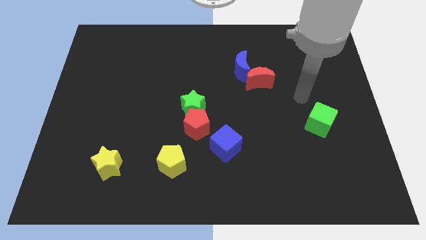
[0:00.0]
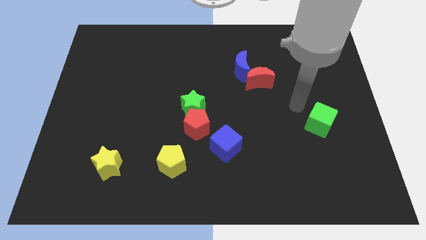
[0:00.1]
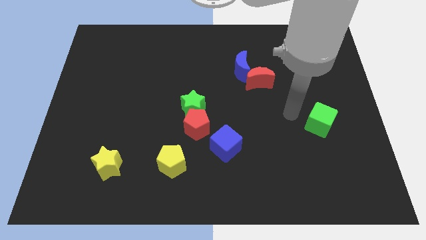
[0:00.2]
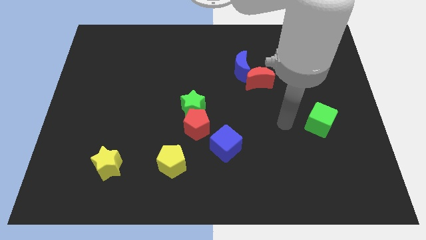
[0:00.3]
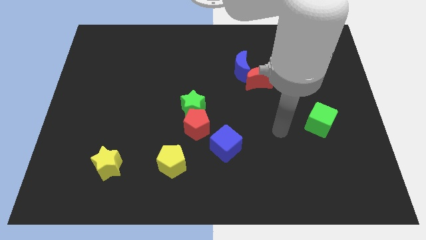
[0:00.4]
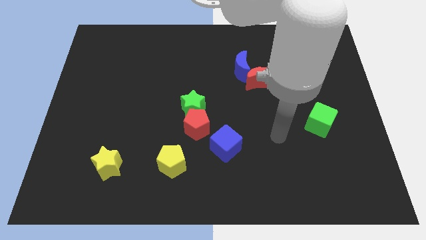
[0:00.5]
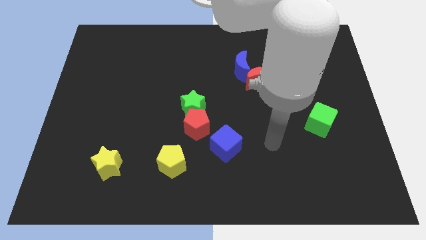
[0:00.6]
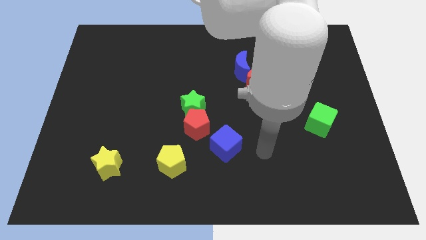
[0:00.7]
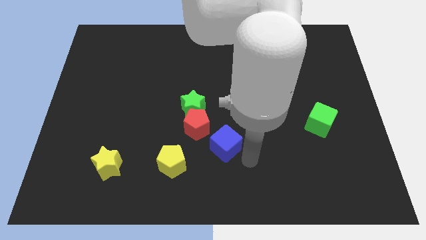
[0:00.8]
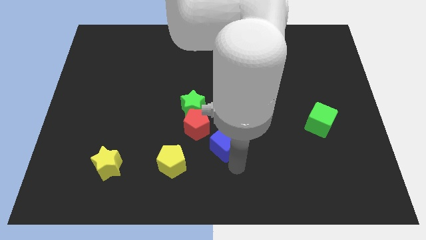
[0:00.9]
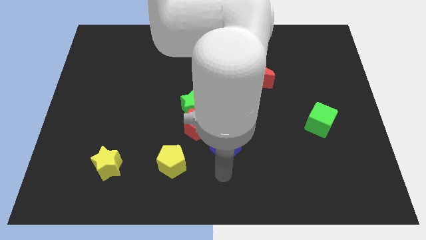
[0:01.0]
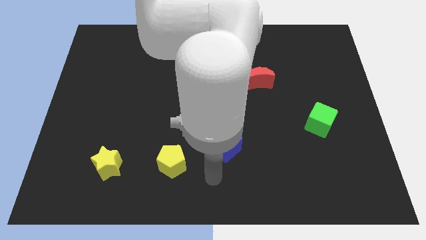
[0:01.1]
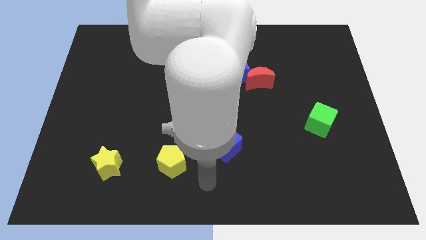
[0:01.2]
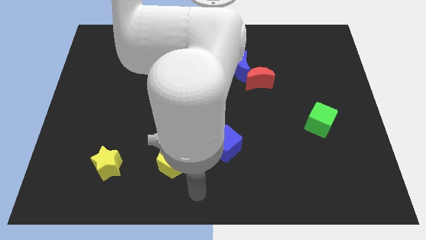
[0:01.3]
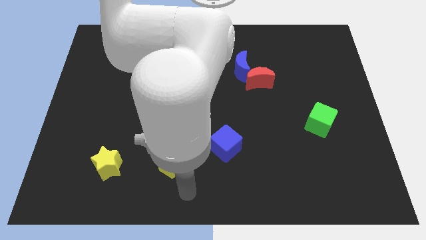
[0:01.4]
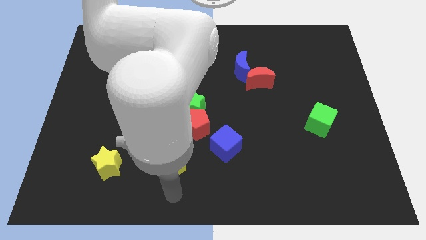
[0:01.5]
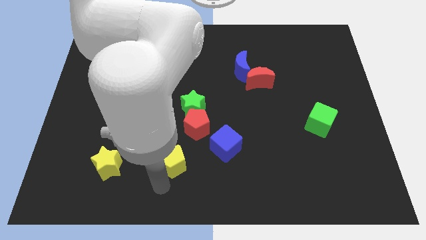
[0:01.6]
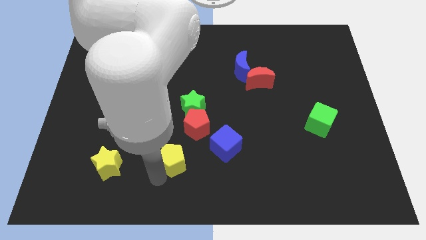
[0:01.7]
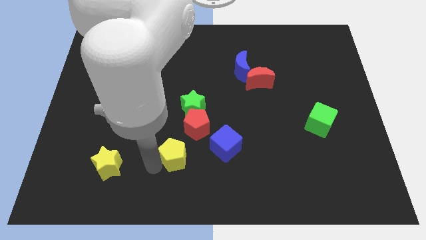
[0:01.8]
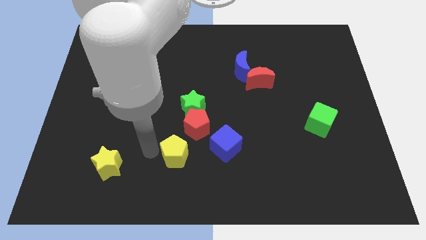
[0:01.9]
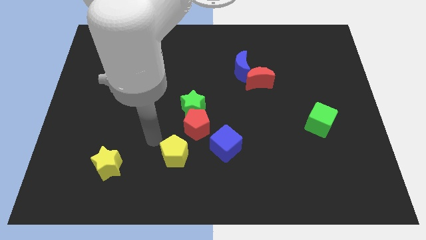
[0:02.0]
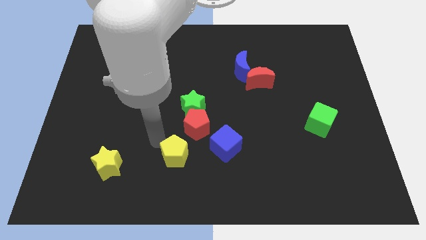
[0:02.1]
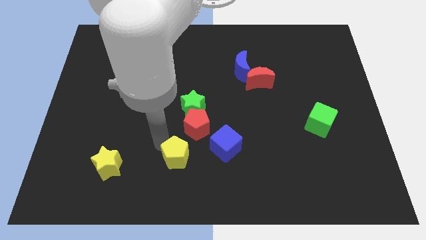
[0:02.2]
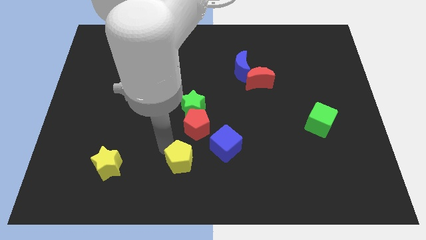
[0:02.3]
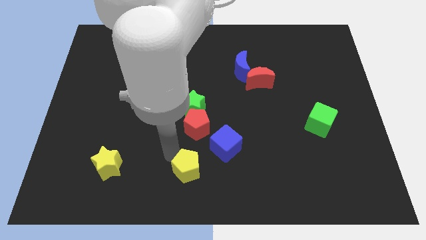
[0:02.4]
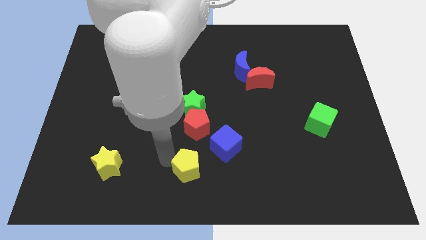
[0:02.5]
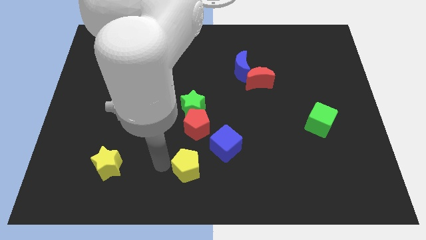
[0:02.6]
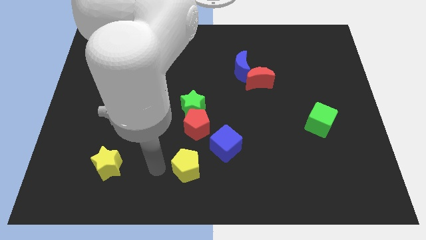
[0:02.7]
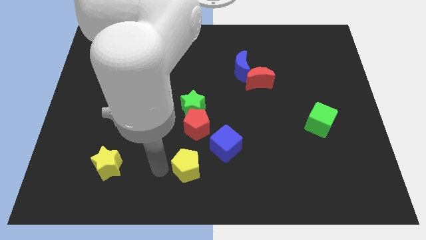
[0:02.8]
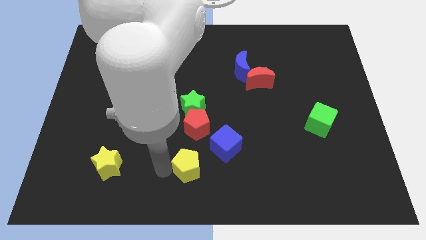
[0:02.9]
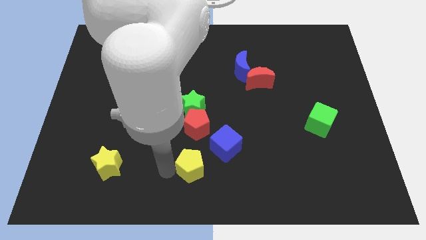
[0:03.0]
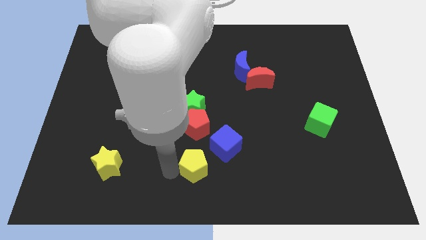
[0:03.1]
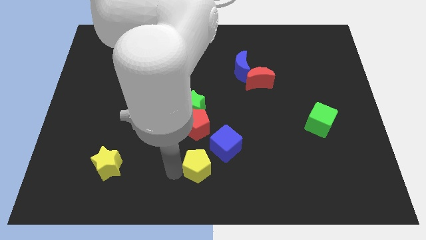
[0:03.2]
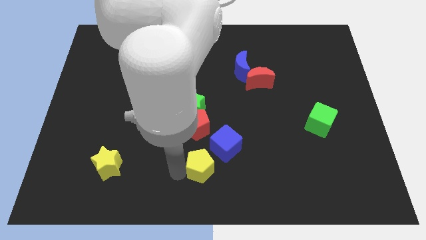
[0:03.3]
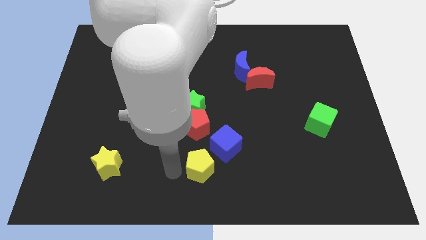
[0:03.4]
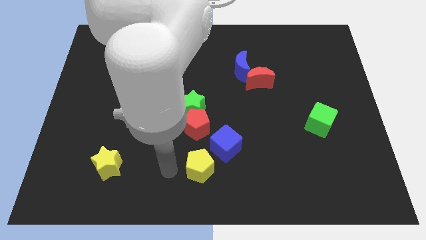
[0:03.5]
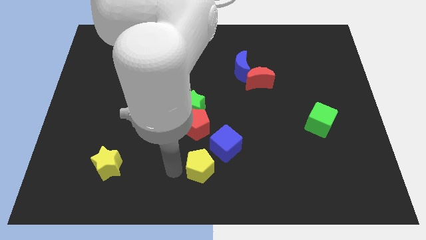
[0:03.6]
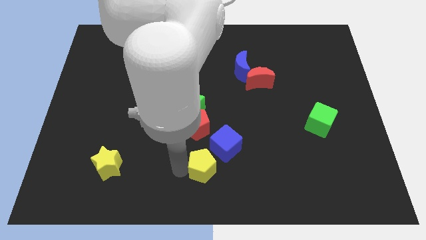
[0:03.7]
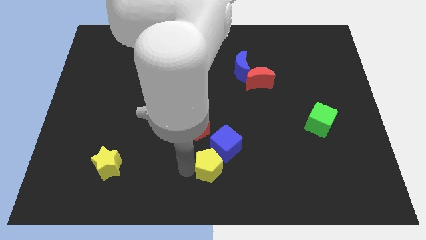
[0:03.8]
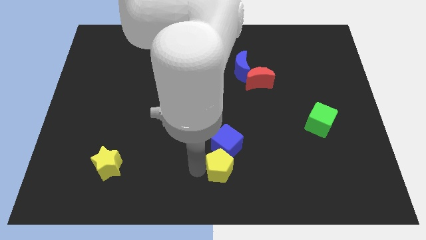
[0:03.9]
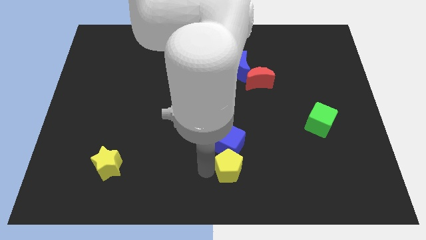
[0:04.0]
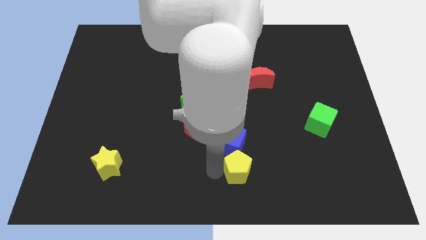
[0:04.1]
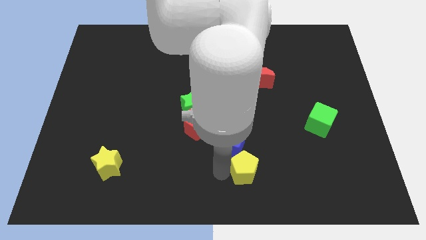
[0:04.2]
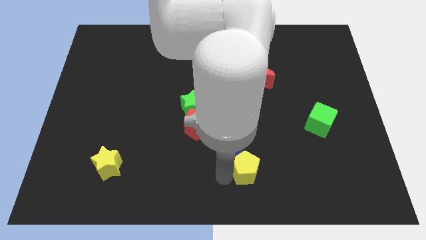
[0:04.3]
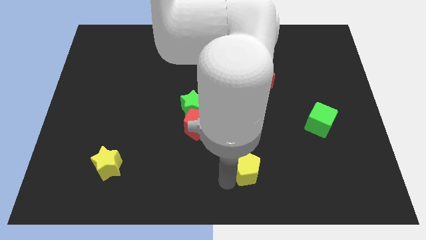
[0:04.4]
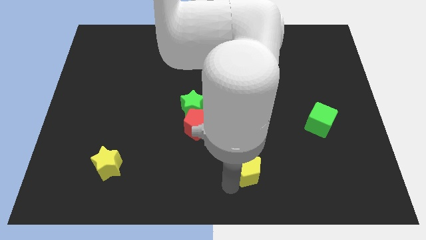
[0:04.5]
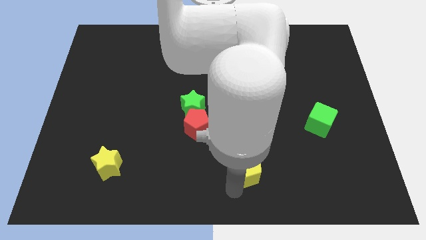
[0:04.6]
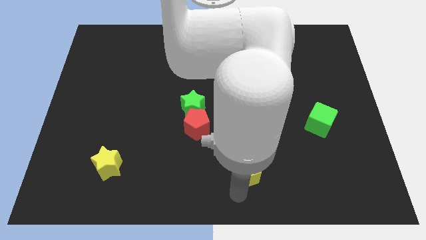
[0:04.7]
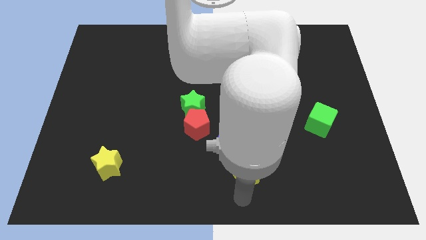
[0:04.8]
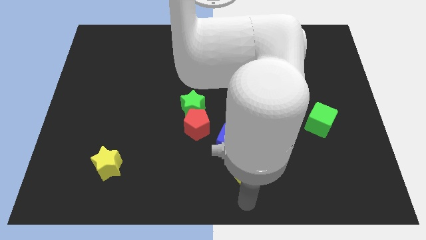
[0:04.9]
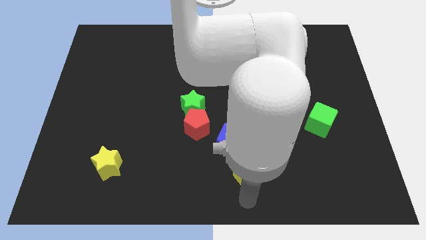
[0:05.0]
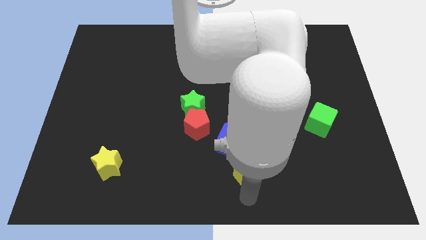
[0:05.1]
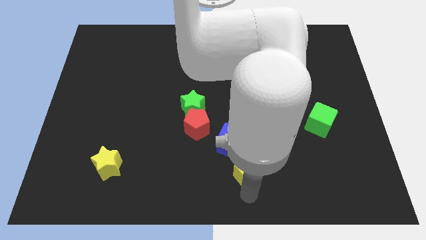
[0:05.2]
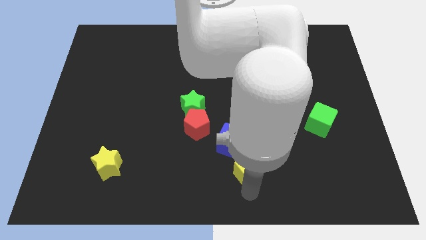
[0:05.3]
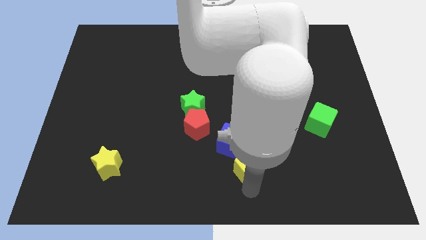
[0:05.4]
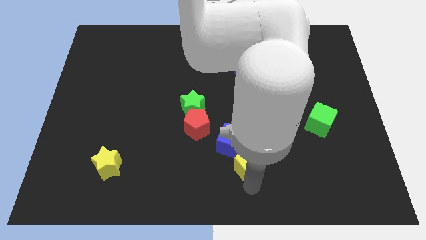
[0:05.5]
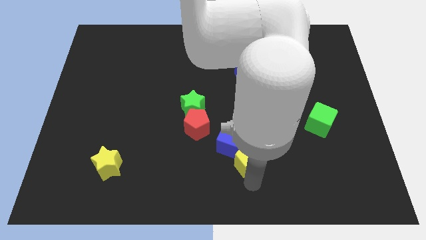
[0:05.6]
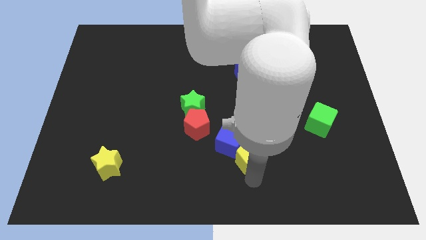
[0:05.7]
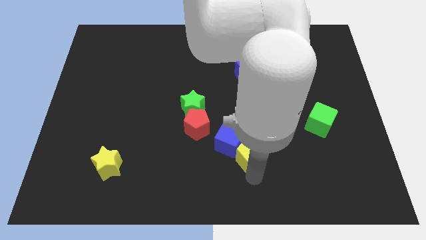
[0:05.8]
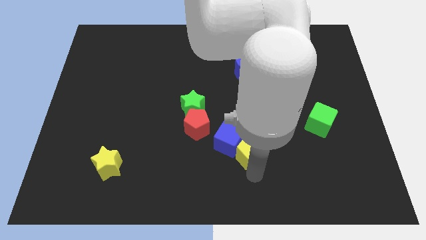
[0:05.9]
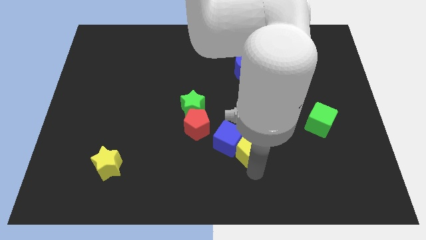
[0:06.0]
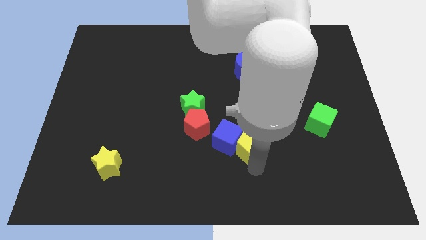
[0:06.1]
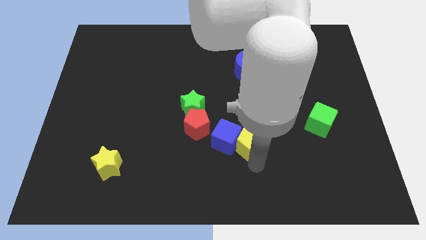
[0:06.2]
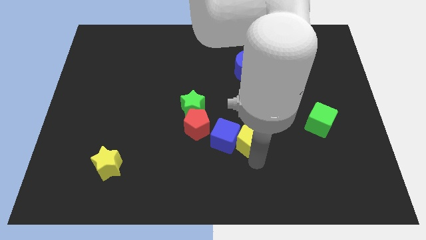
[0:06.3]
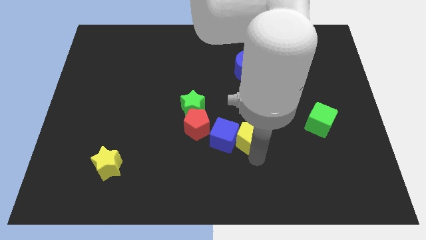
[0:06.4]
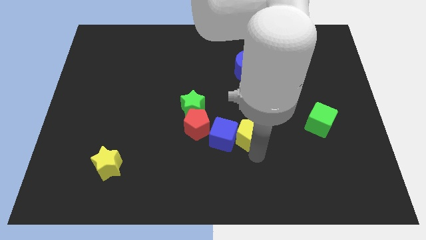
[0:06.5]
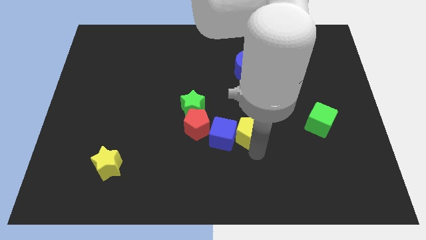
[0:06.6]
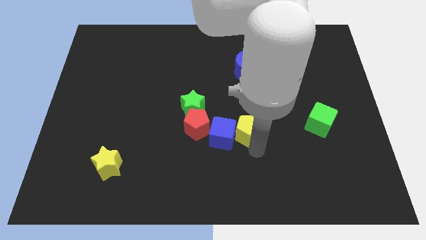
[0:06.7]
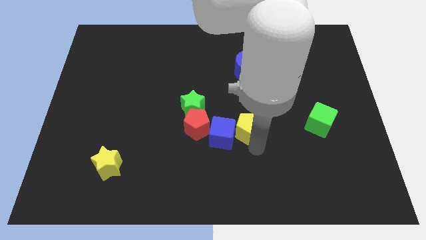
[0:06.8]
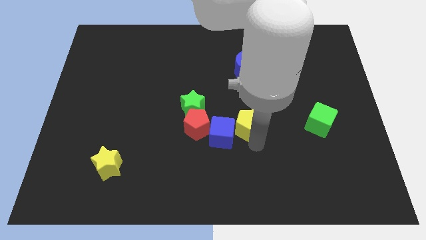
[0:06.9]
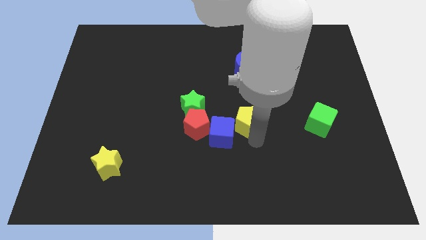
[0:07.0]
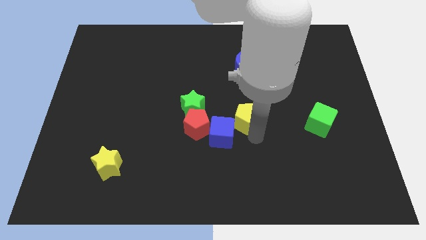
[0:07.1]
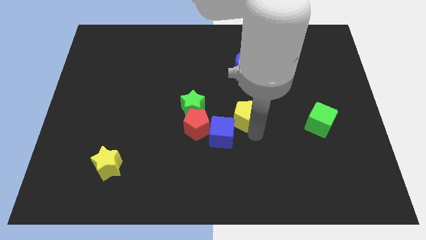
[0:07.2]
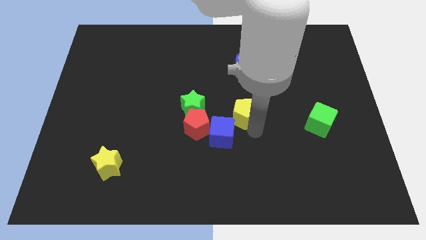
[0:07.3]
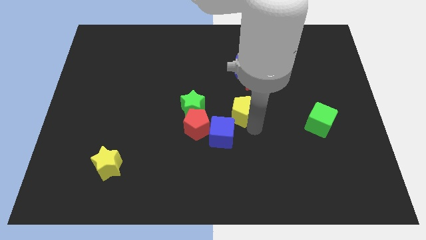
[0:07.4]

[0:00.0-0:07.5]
slide the yellow pentagon diagonally down and to the left of the red moon
